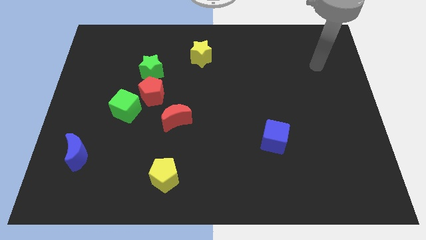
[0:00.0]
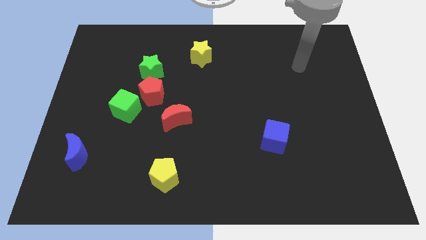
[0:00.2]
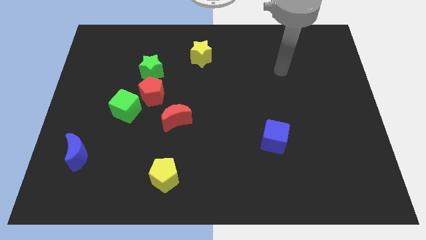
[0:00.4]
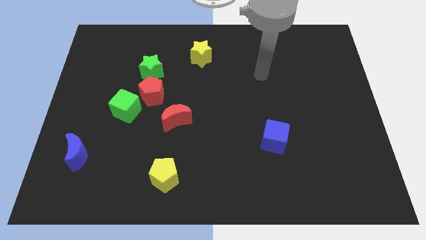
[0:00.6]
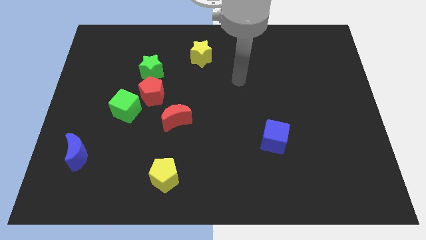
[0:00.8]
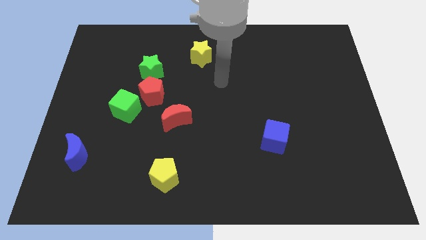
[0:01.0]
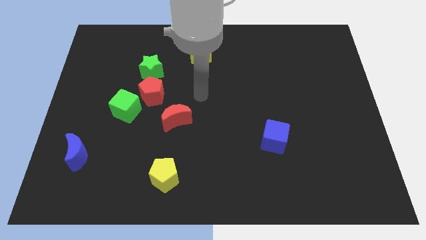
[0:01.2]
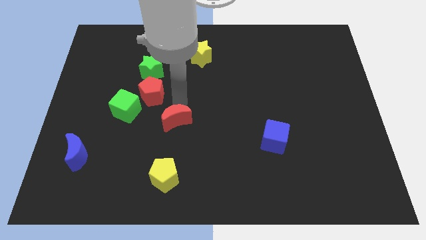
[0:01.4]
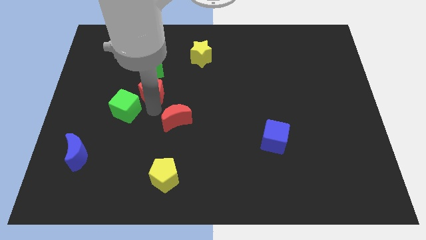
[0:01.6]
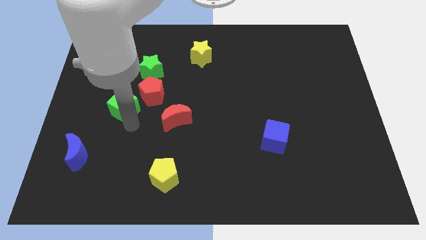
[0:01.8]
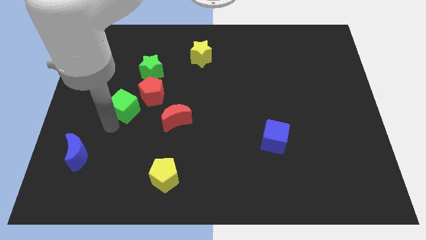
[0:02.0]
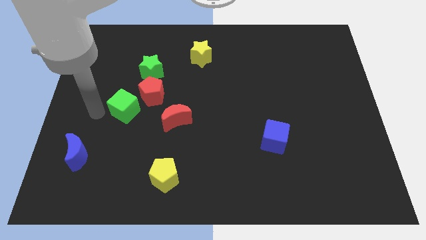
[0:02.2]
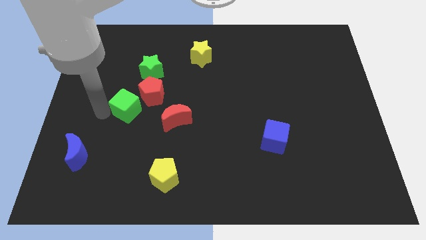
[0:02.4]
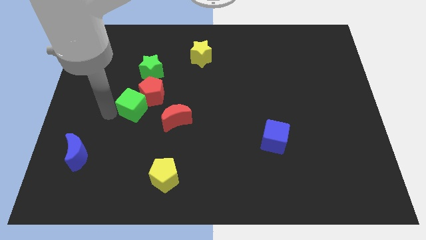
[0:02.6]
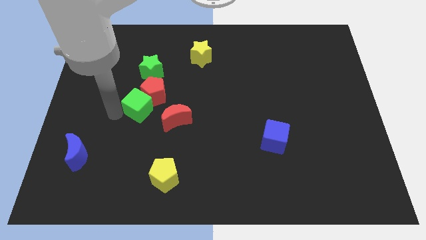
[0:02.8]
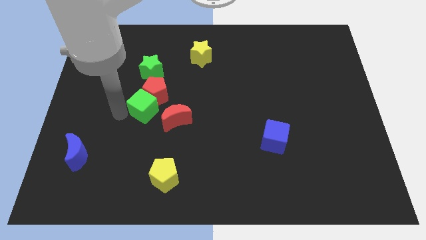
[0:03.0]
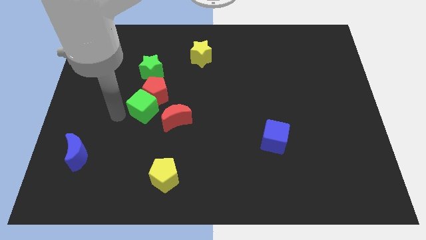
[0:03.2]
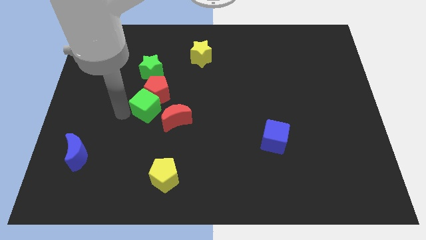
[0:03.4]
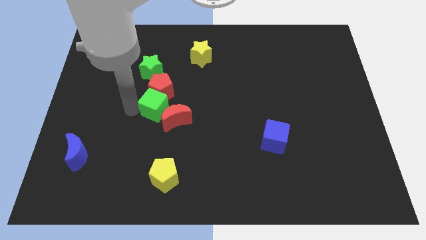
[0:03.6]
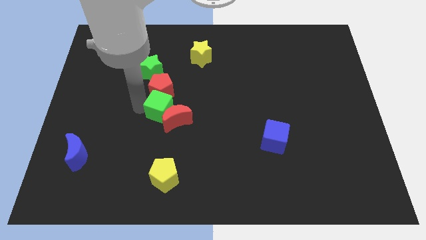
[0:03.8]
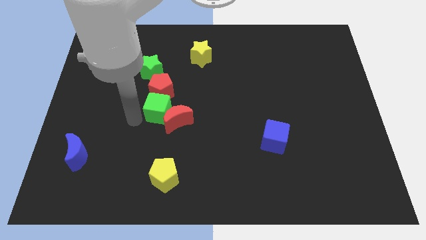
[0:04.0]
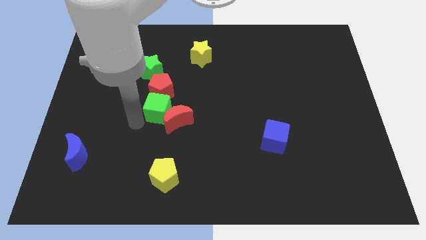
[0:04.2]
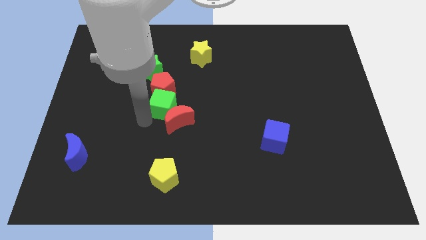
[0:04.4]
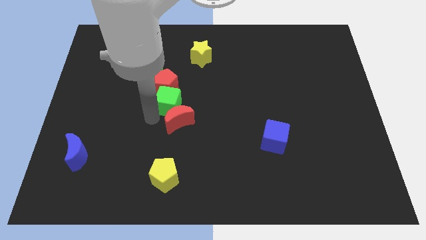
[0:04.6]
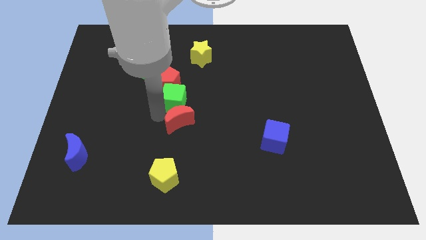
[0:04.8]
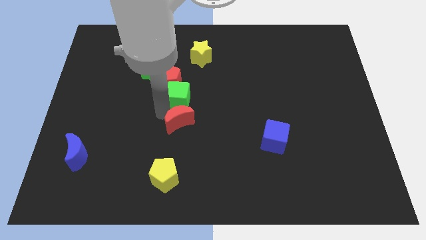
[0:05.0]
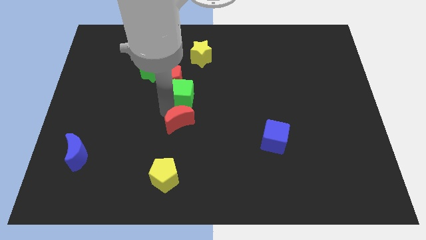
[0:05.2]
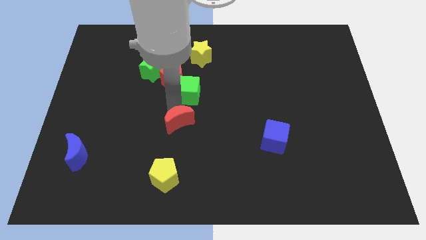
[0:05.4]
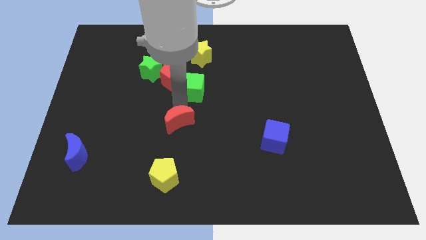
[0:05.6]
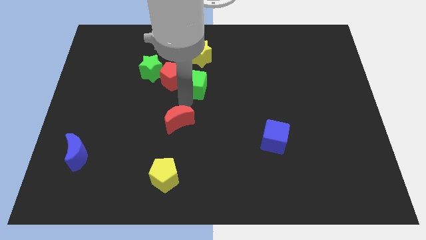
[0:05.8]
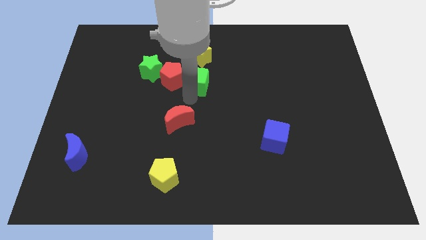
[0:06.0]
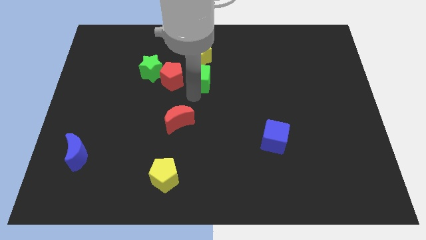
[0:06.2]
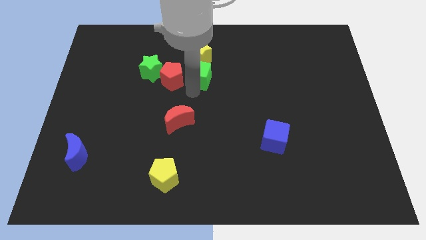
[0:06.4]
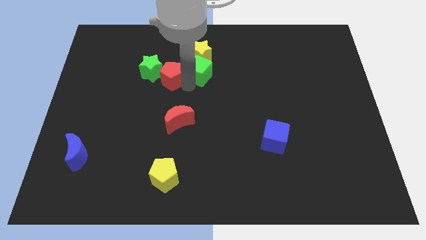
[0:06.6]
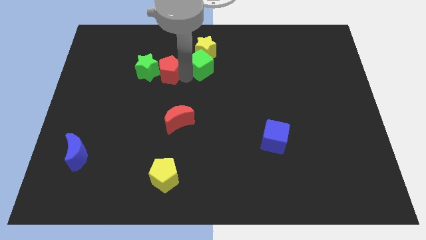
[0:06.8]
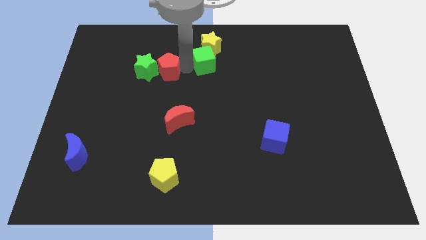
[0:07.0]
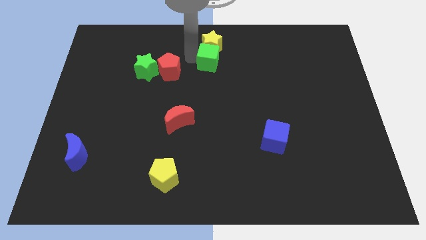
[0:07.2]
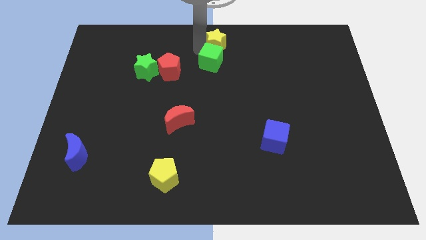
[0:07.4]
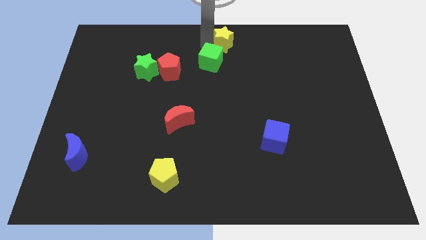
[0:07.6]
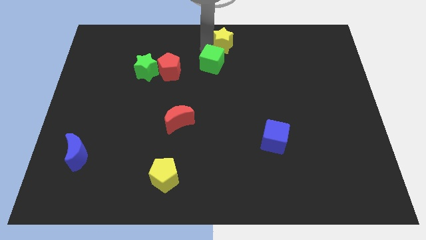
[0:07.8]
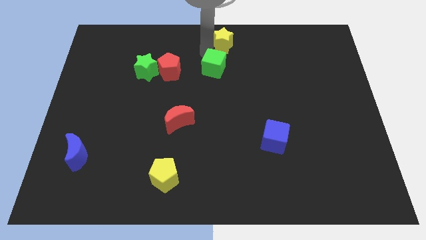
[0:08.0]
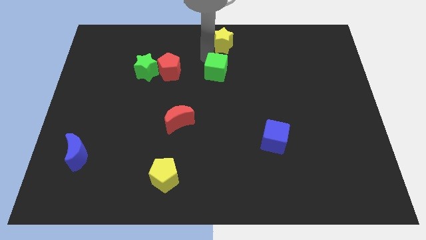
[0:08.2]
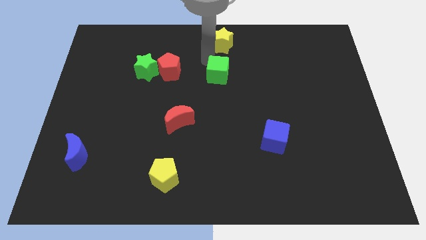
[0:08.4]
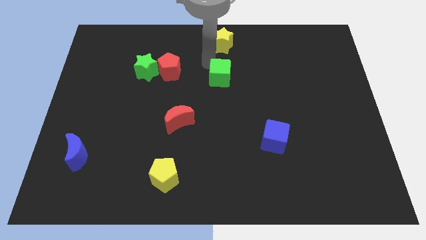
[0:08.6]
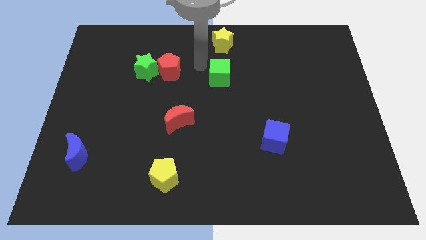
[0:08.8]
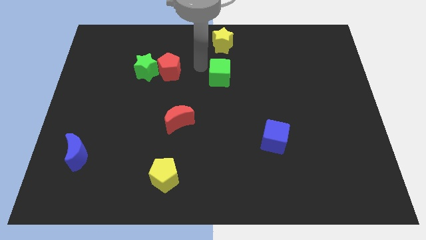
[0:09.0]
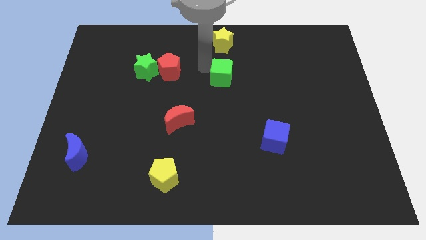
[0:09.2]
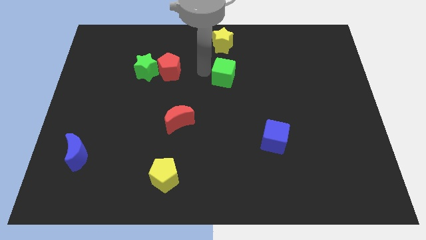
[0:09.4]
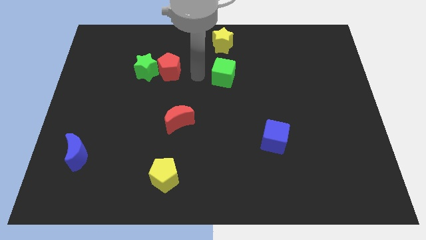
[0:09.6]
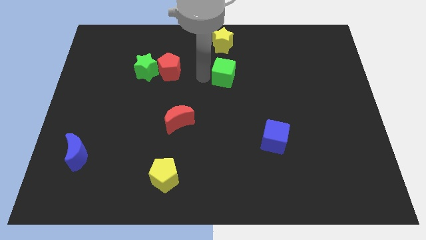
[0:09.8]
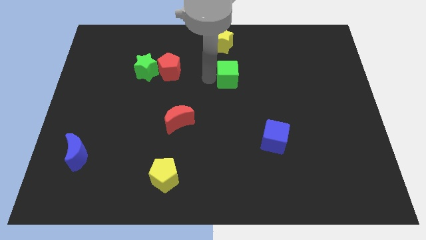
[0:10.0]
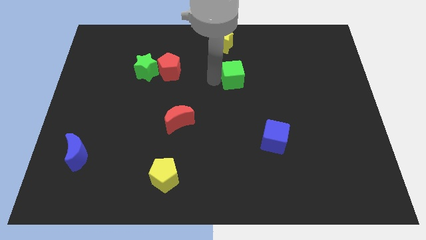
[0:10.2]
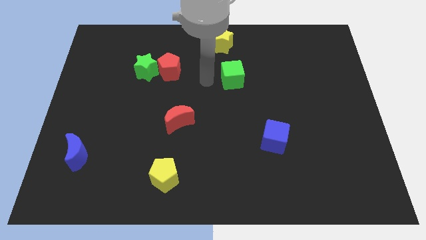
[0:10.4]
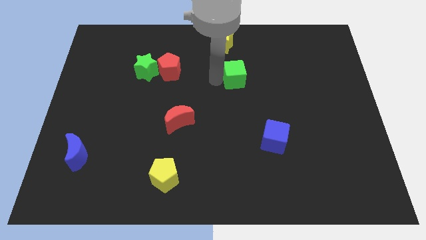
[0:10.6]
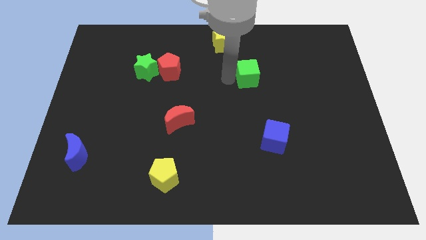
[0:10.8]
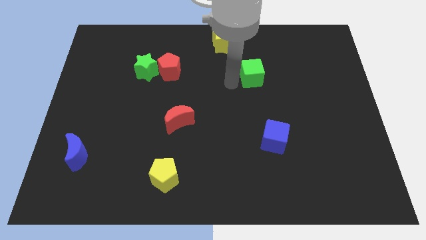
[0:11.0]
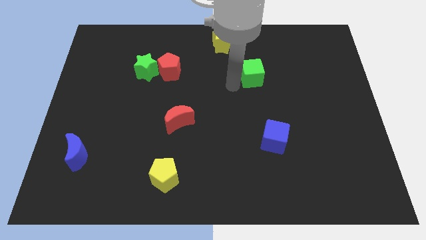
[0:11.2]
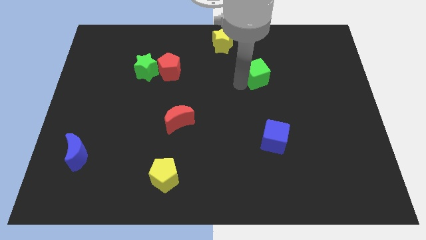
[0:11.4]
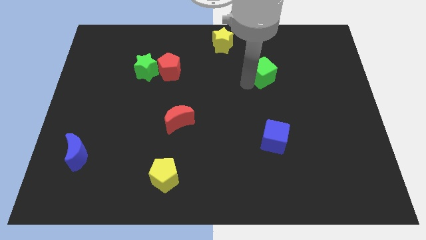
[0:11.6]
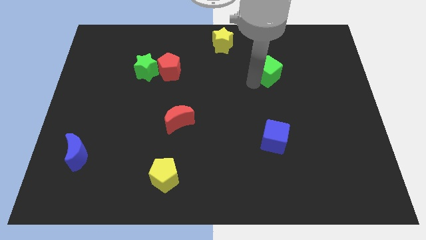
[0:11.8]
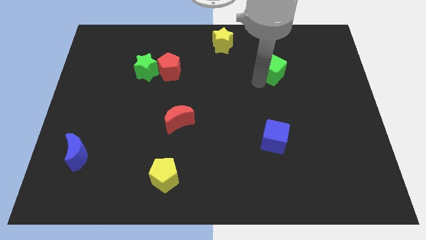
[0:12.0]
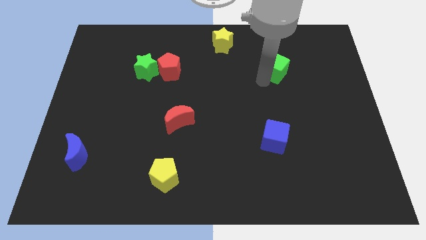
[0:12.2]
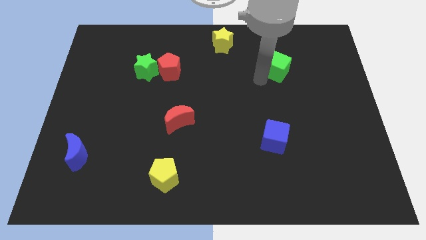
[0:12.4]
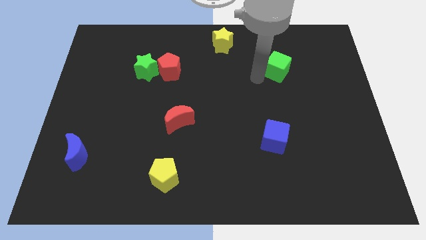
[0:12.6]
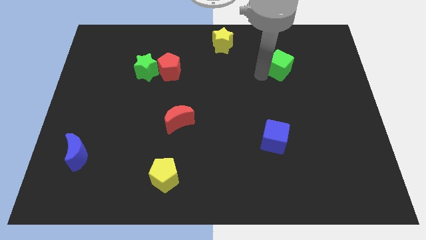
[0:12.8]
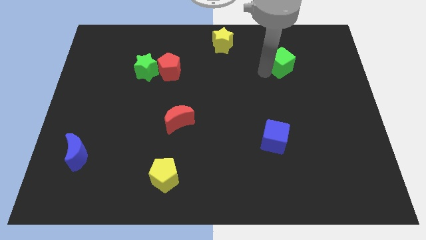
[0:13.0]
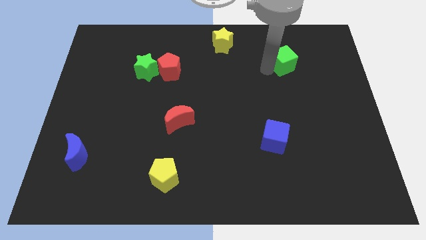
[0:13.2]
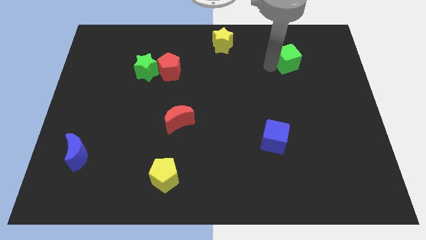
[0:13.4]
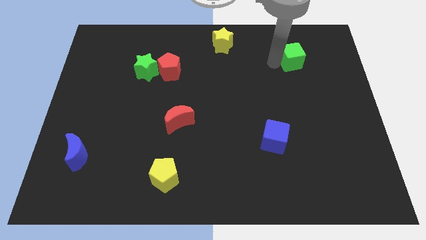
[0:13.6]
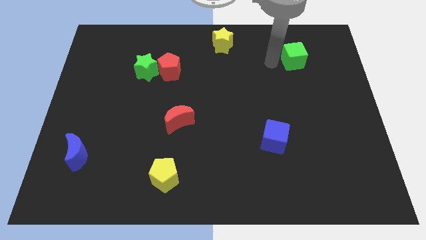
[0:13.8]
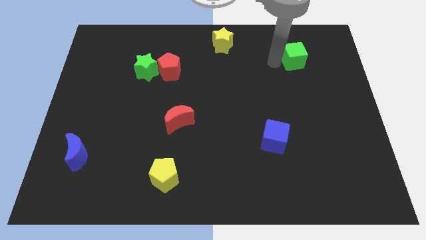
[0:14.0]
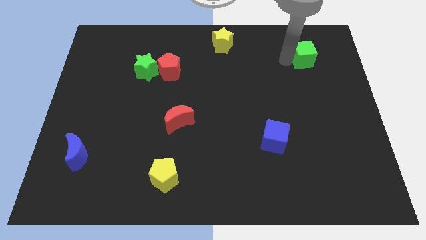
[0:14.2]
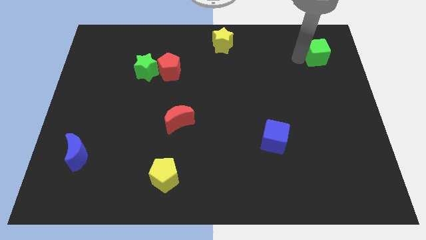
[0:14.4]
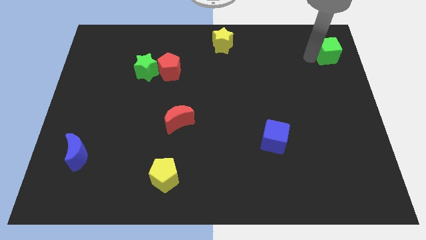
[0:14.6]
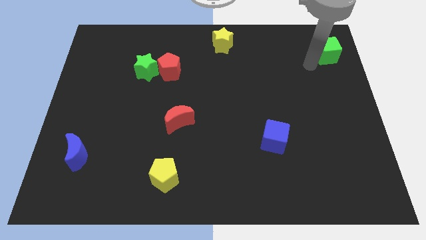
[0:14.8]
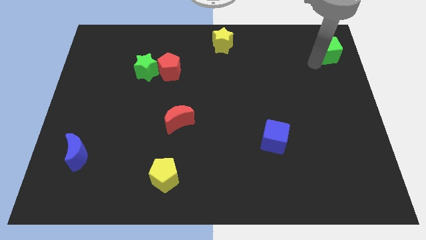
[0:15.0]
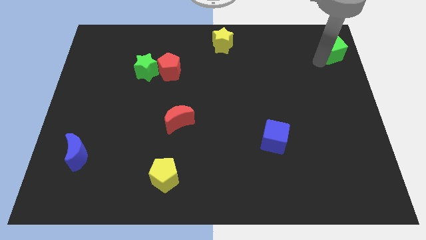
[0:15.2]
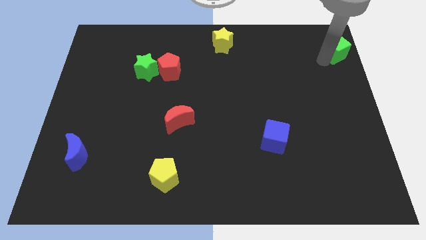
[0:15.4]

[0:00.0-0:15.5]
push the green cube to the top right
